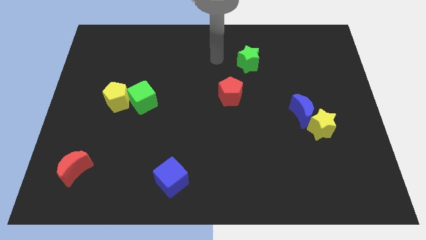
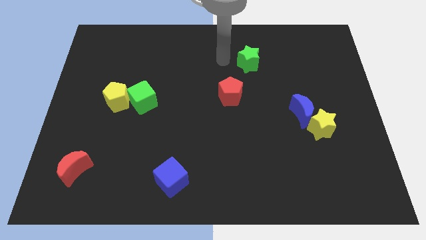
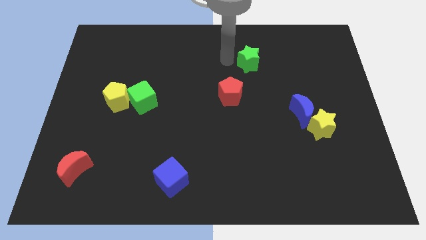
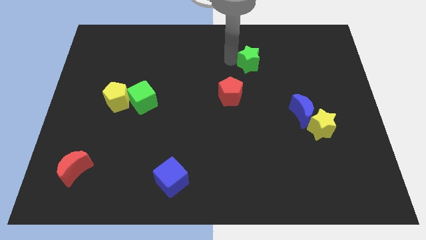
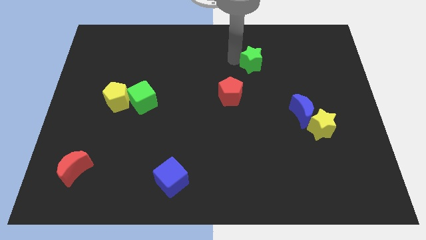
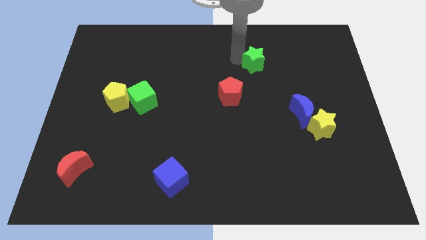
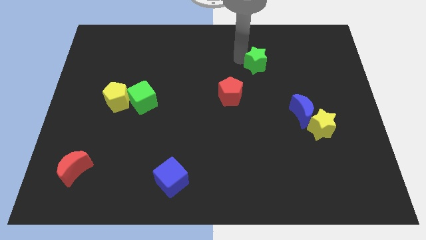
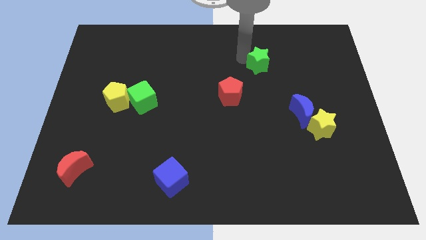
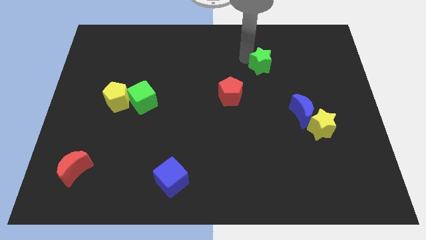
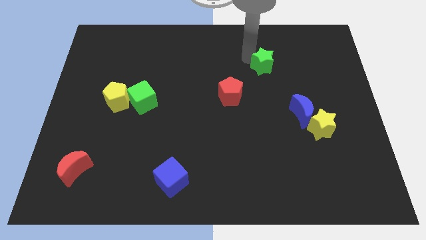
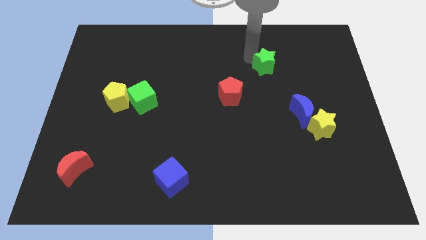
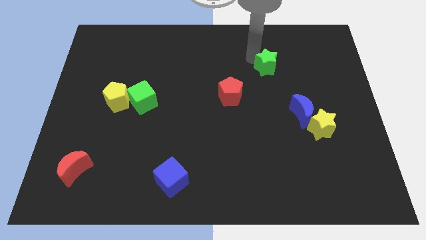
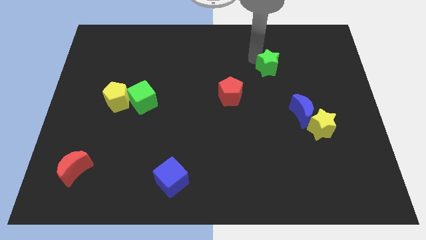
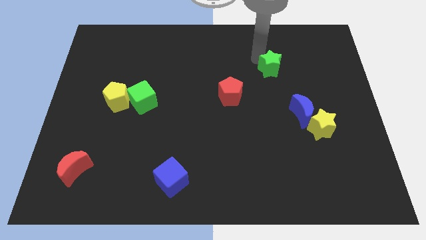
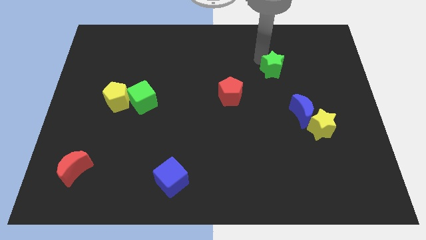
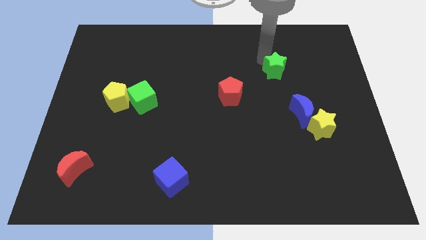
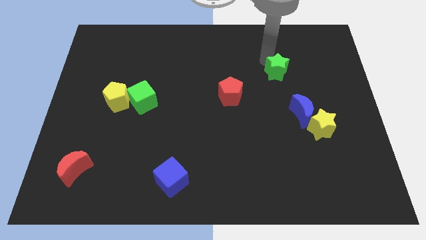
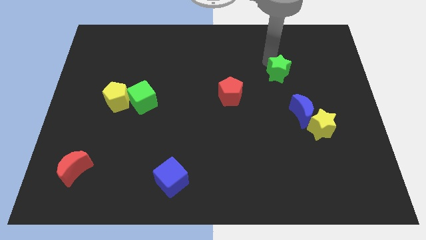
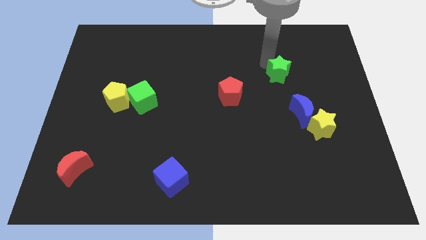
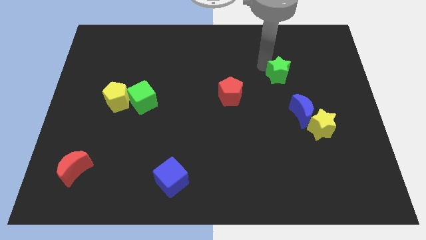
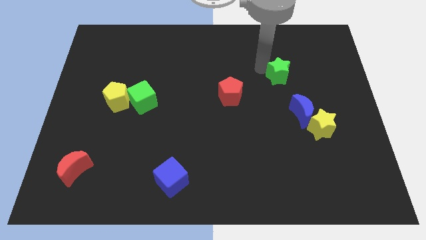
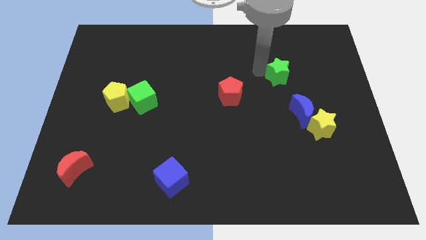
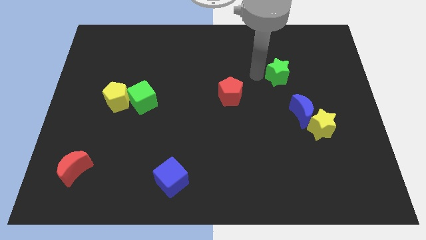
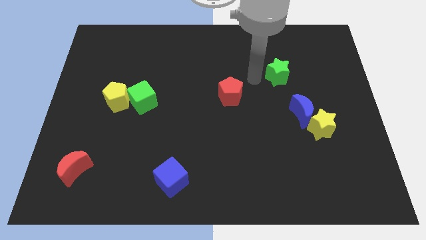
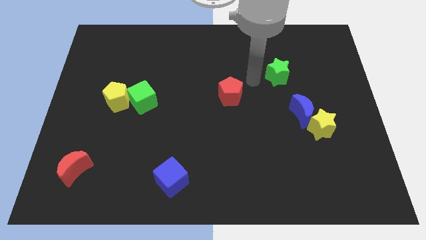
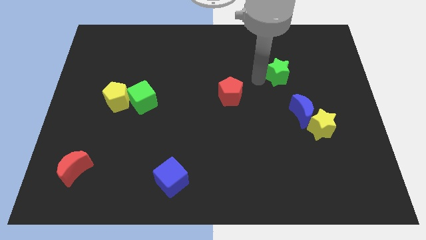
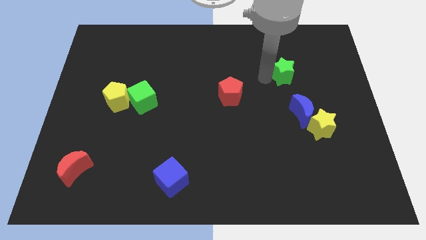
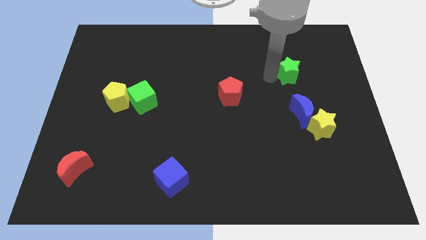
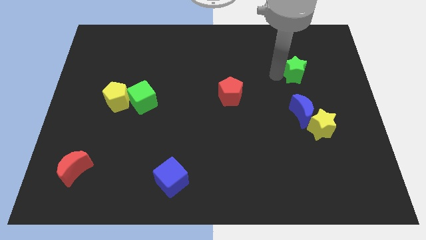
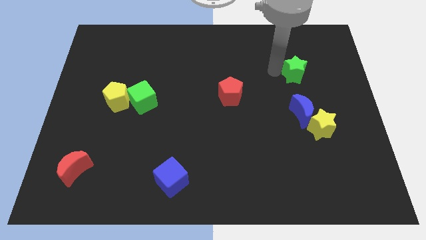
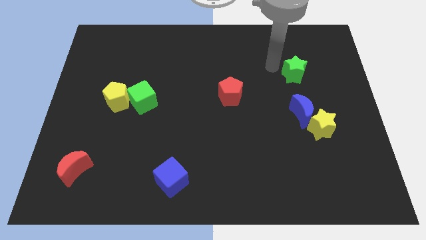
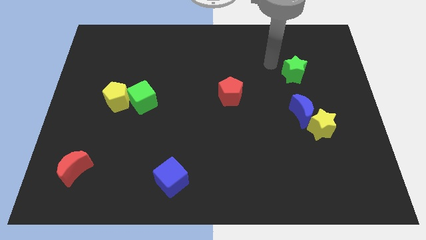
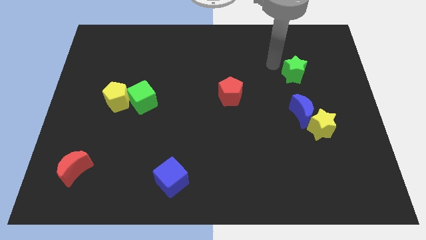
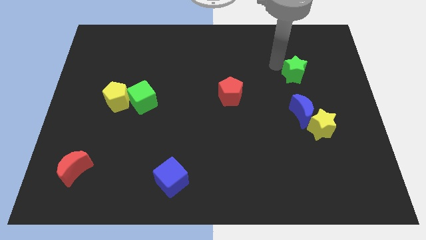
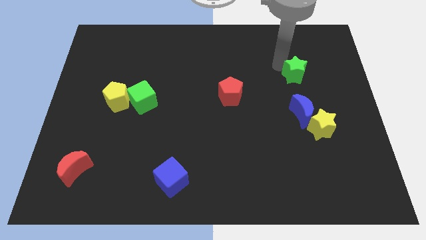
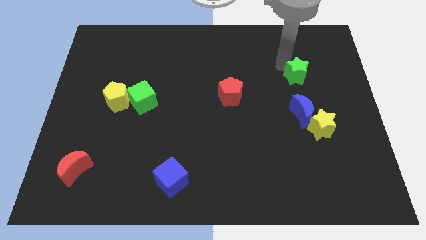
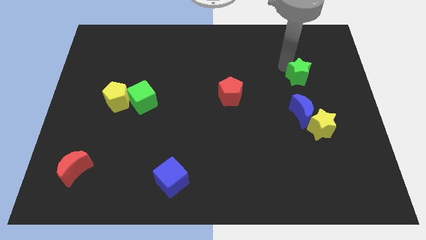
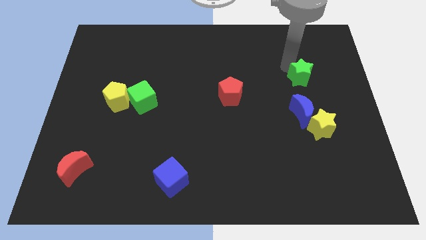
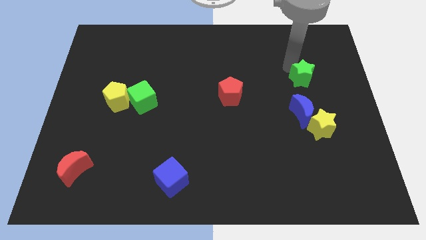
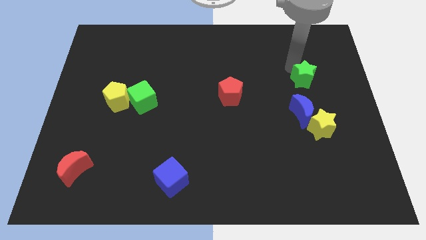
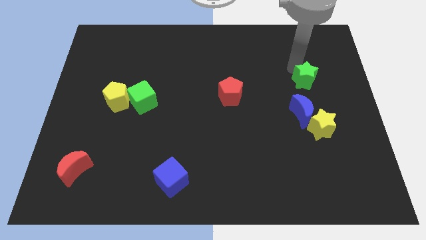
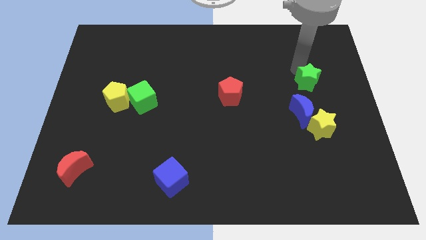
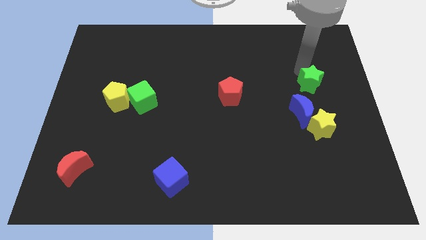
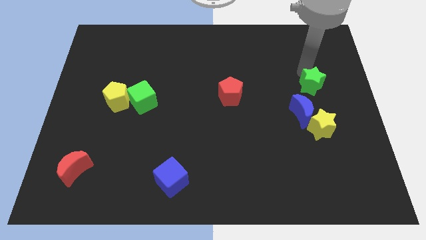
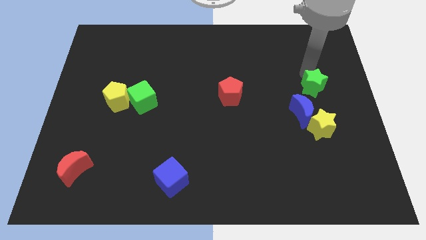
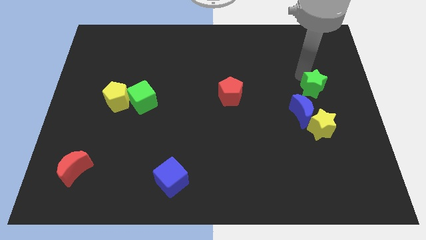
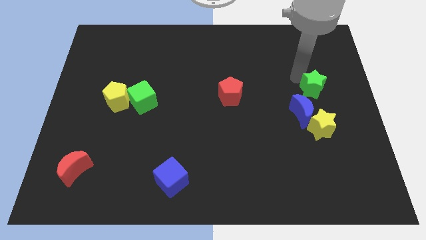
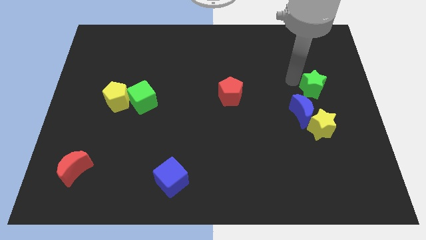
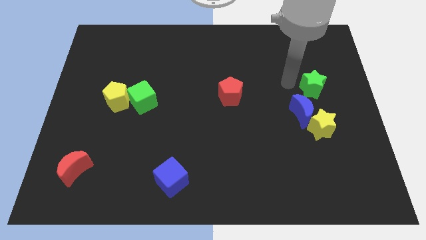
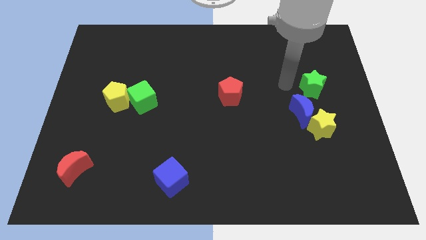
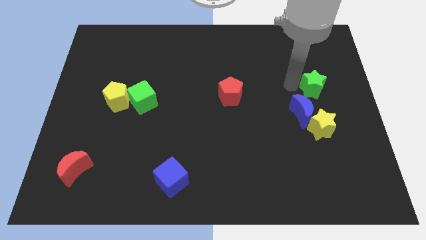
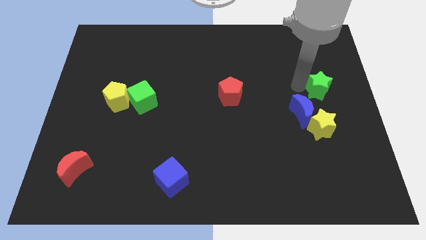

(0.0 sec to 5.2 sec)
move the green star to the center right

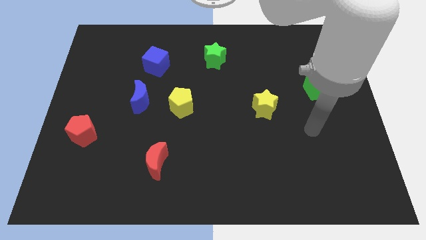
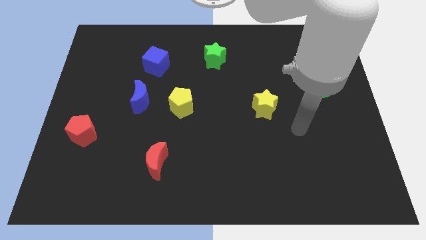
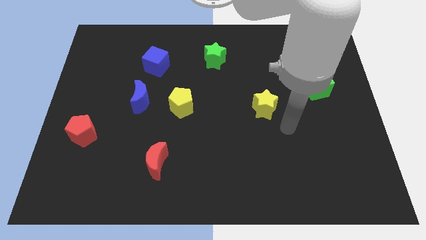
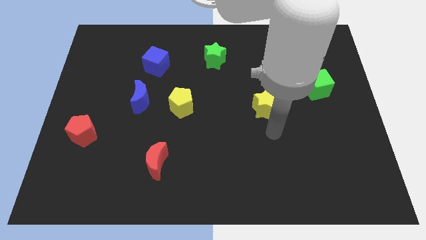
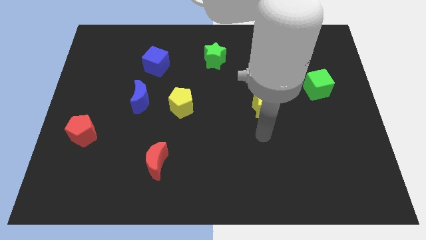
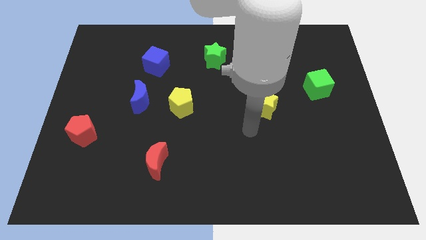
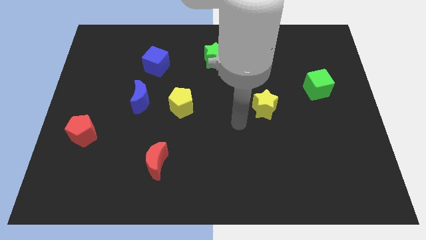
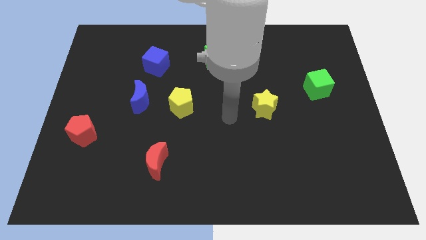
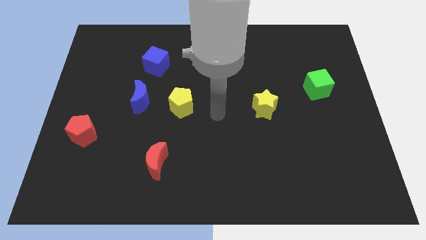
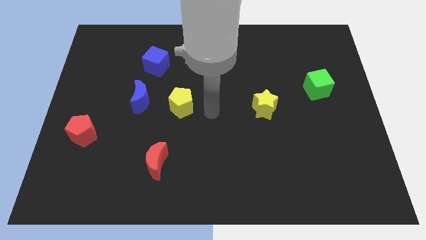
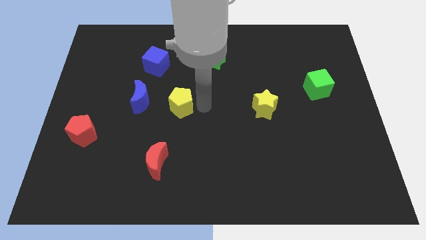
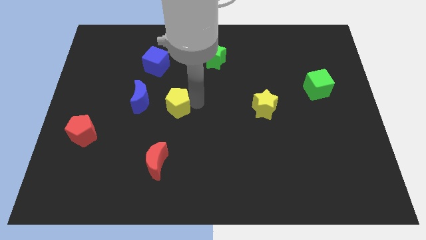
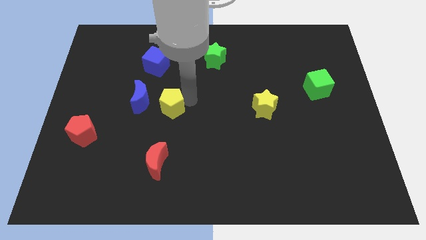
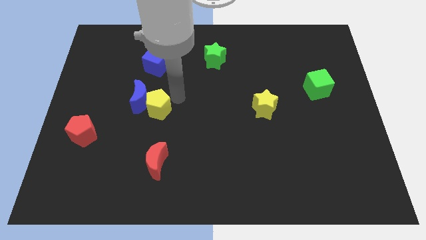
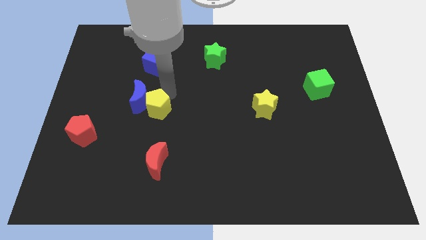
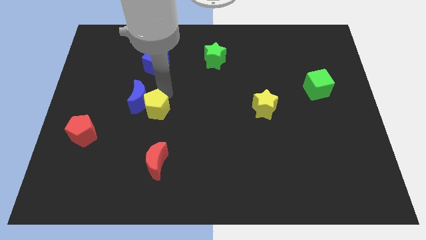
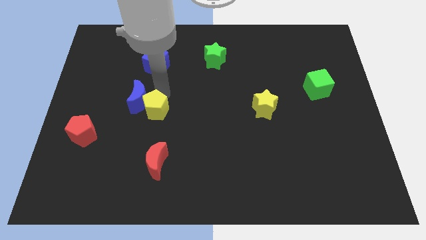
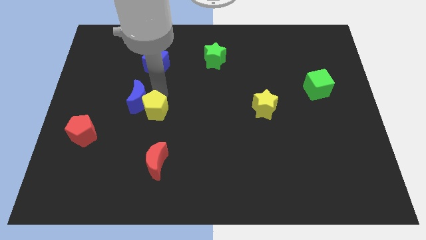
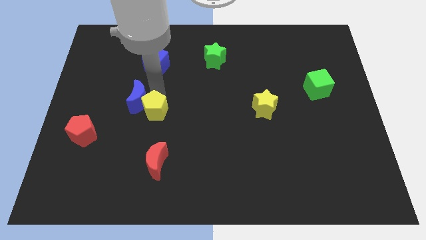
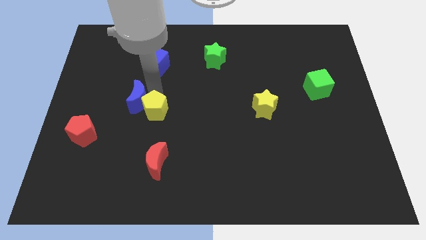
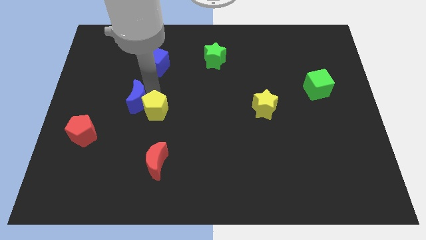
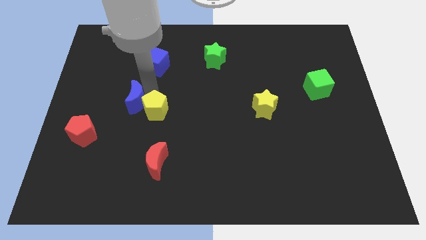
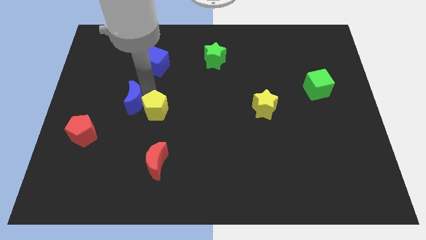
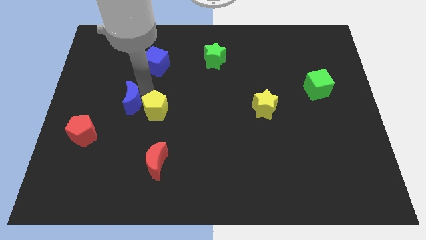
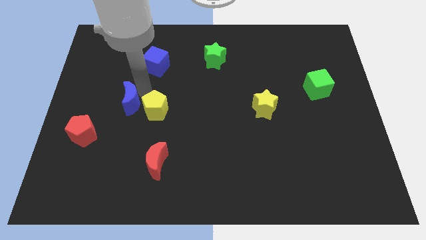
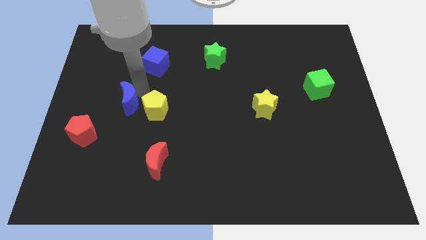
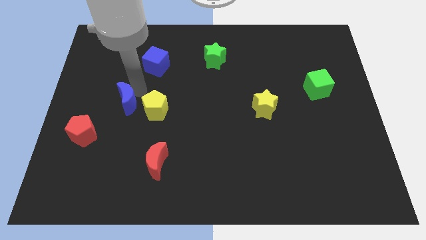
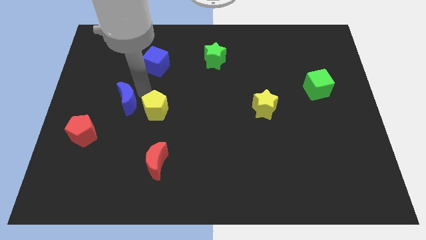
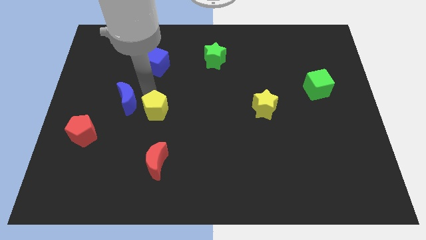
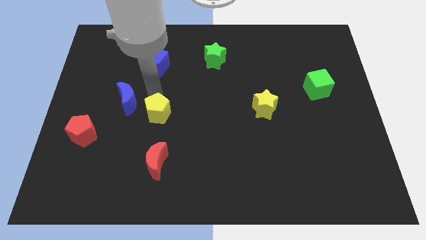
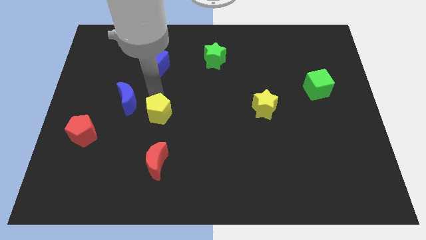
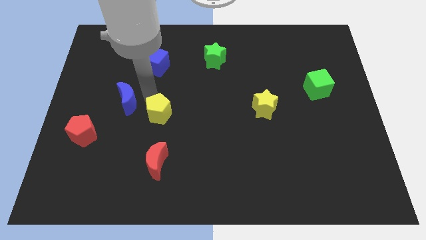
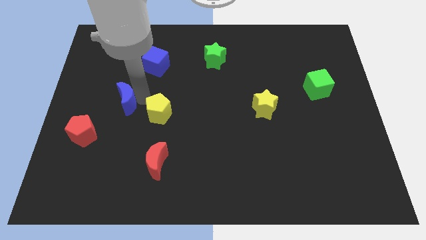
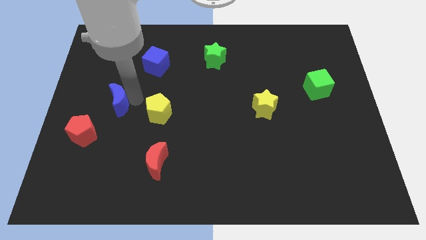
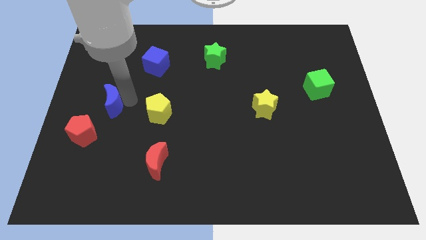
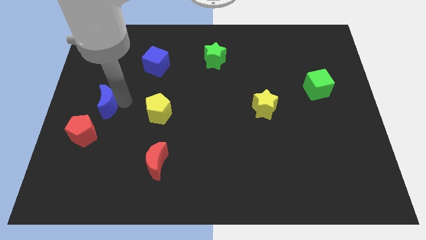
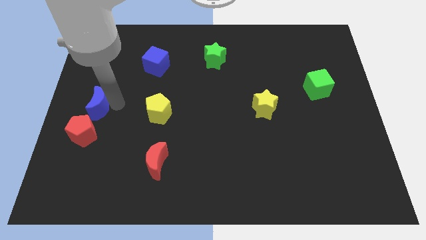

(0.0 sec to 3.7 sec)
put the blue moon to the left side of the board
